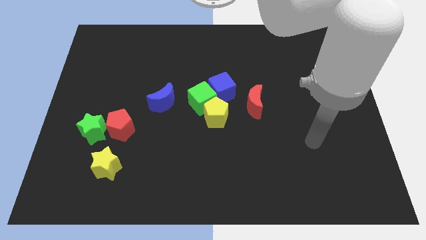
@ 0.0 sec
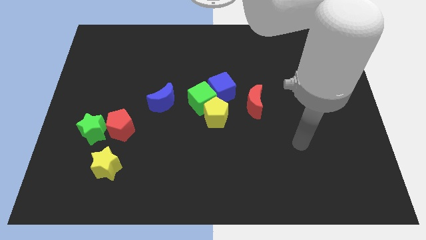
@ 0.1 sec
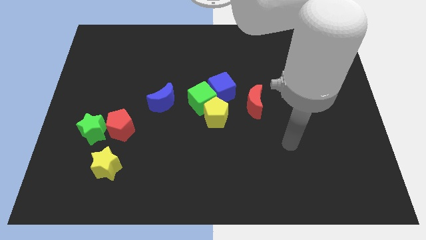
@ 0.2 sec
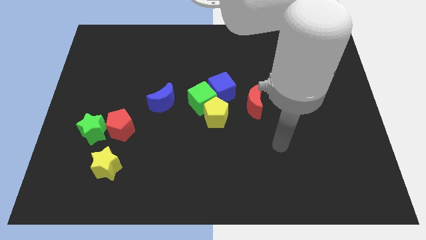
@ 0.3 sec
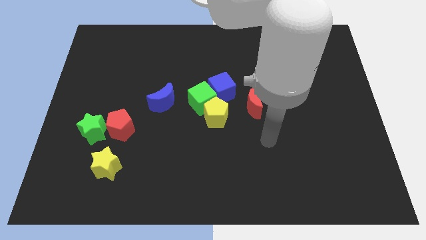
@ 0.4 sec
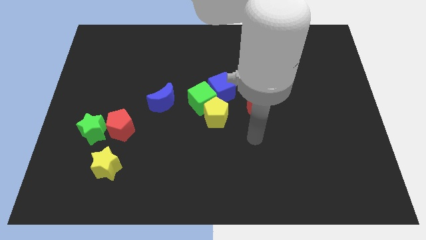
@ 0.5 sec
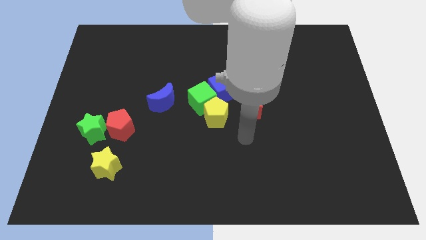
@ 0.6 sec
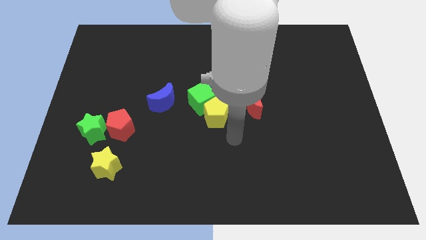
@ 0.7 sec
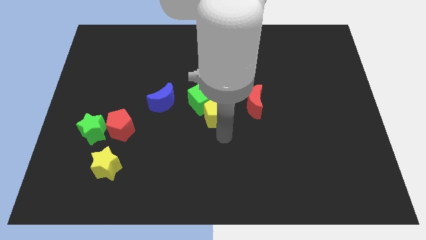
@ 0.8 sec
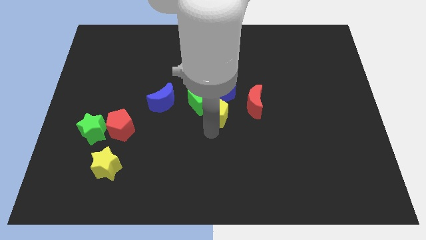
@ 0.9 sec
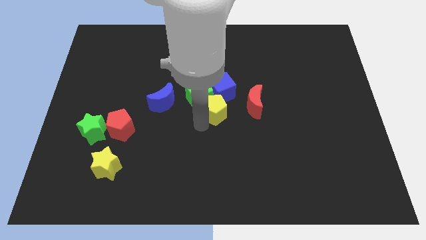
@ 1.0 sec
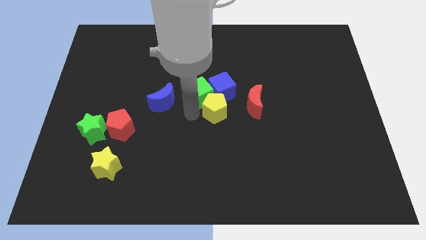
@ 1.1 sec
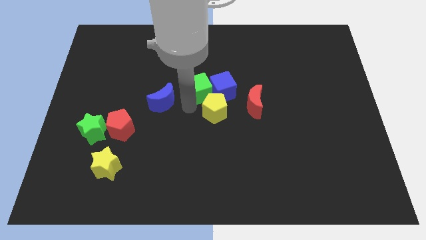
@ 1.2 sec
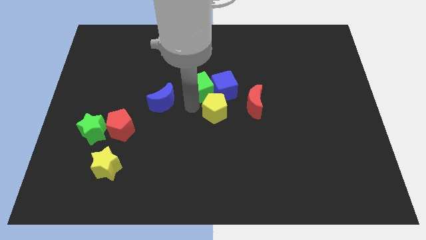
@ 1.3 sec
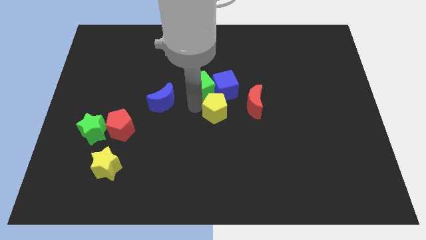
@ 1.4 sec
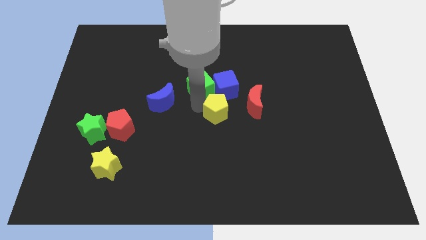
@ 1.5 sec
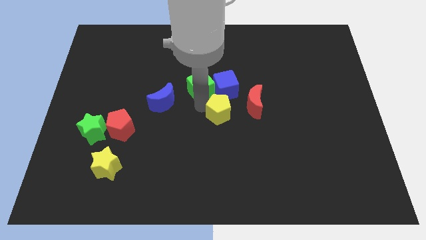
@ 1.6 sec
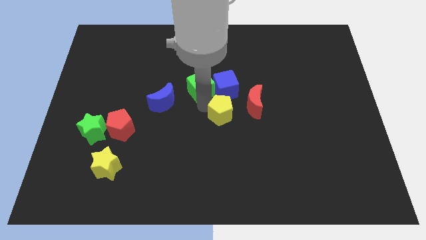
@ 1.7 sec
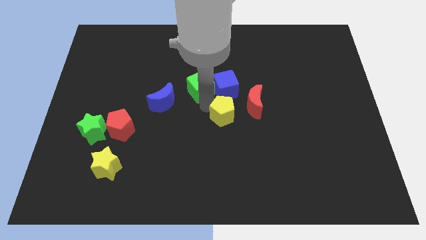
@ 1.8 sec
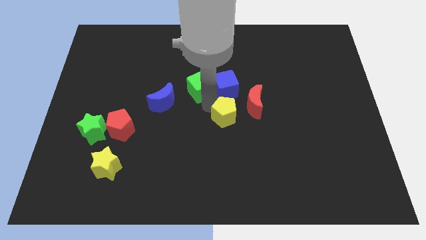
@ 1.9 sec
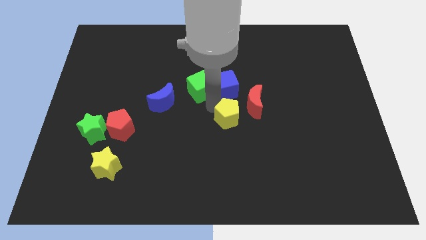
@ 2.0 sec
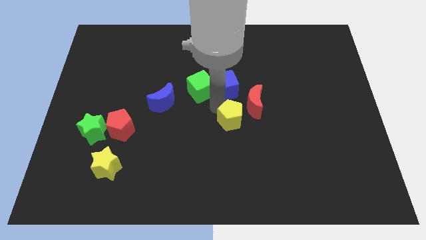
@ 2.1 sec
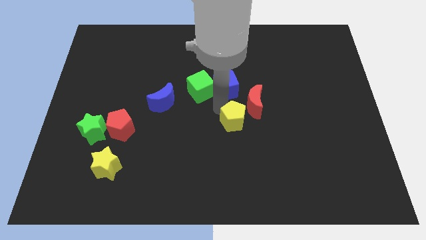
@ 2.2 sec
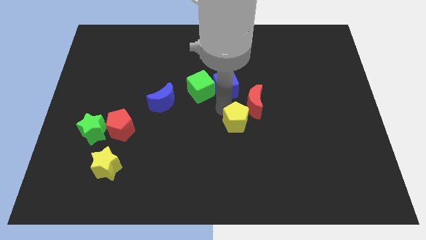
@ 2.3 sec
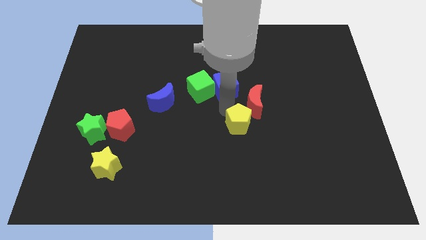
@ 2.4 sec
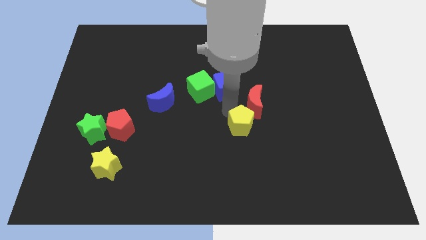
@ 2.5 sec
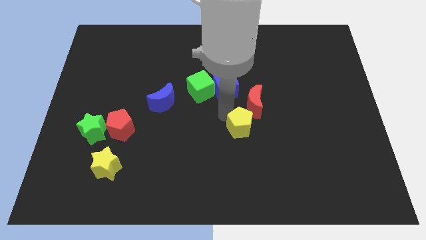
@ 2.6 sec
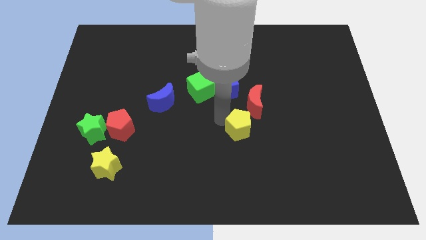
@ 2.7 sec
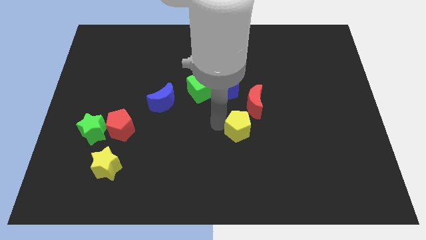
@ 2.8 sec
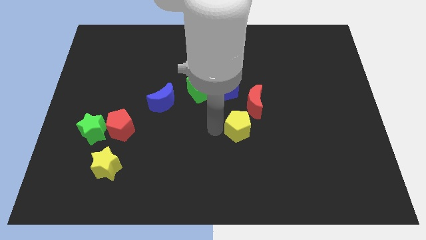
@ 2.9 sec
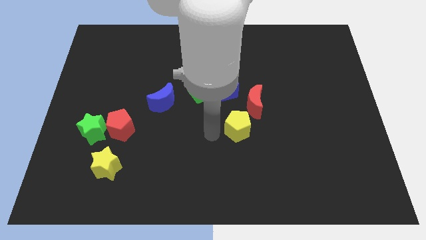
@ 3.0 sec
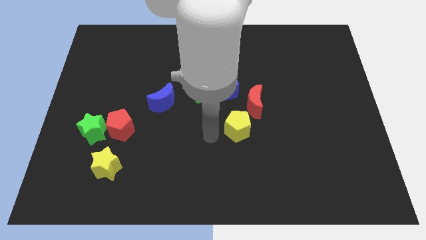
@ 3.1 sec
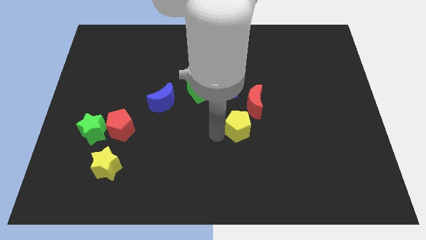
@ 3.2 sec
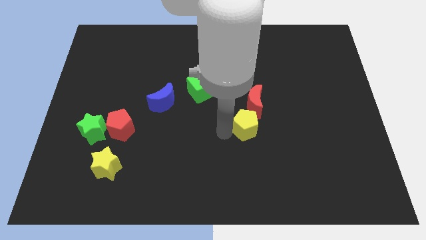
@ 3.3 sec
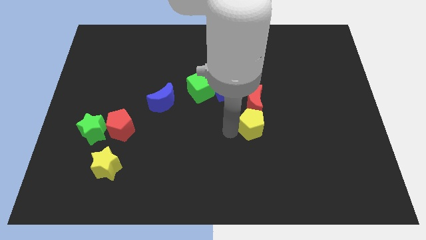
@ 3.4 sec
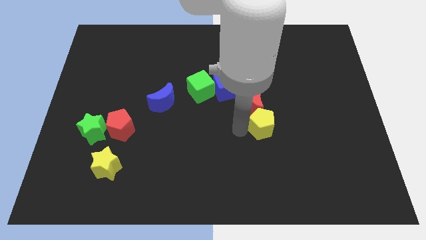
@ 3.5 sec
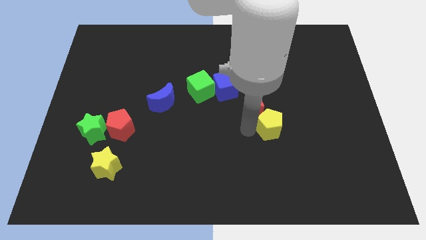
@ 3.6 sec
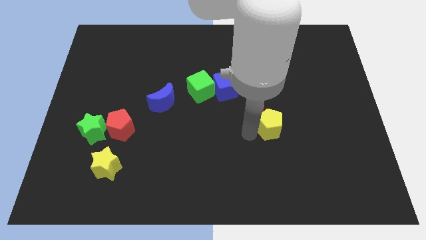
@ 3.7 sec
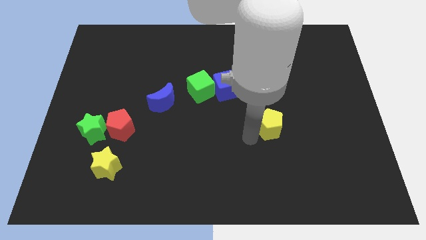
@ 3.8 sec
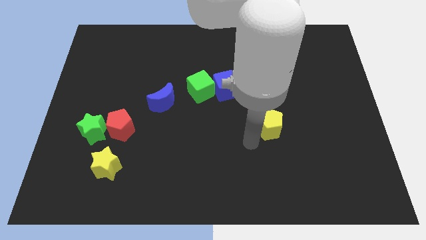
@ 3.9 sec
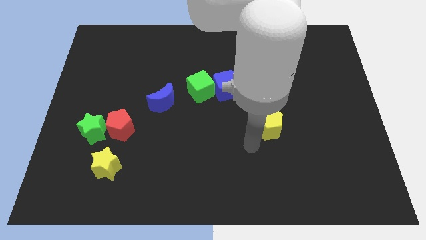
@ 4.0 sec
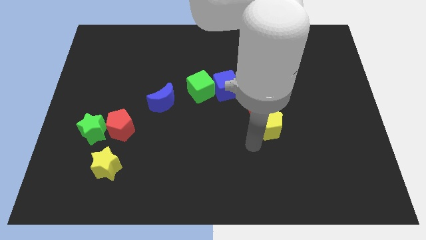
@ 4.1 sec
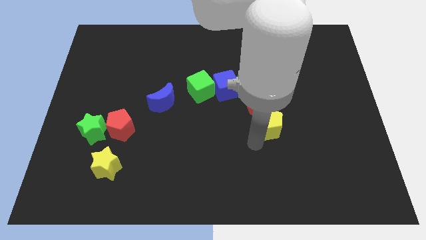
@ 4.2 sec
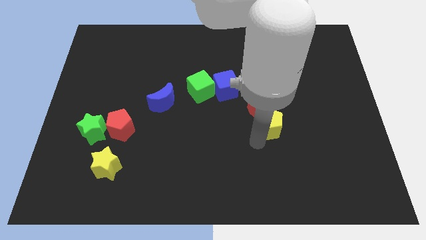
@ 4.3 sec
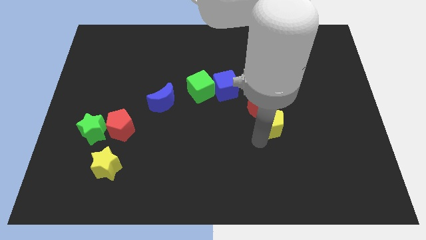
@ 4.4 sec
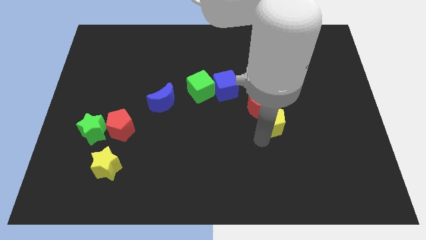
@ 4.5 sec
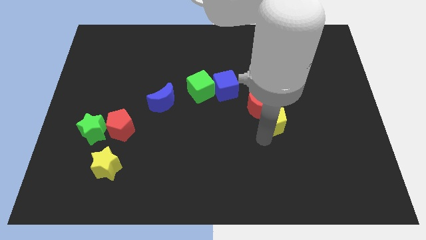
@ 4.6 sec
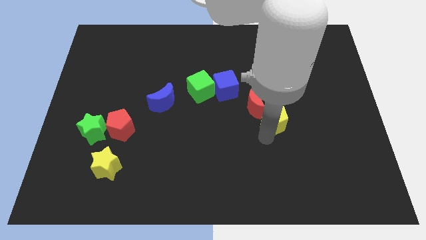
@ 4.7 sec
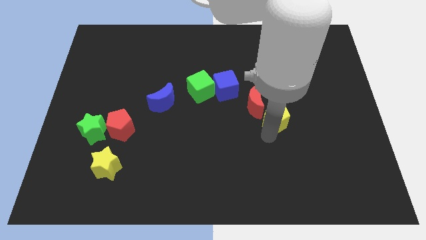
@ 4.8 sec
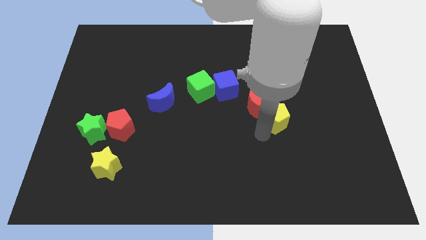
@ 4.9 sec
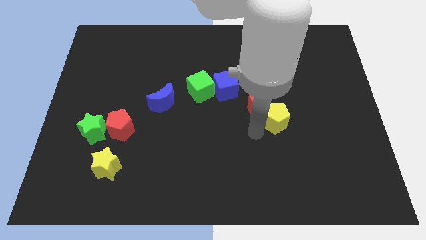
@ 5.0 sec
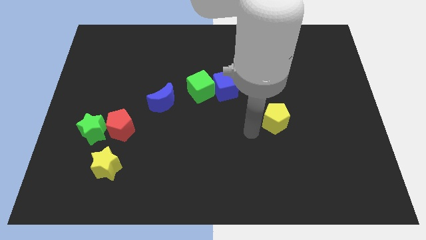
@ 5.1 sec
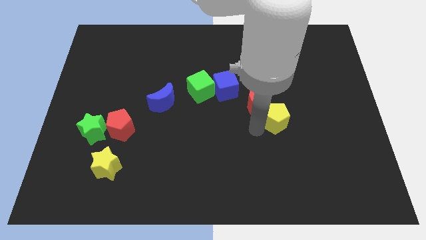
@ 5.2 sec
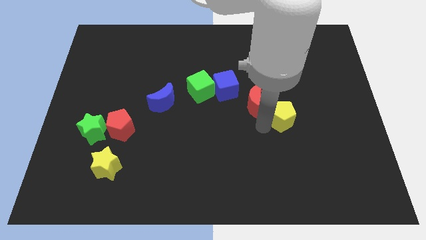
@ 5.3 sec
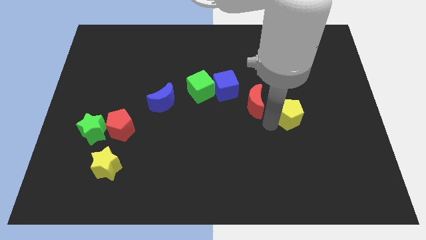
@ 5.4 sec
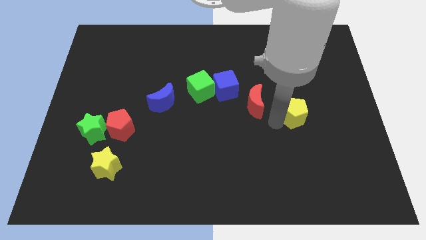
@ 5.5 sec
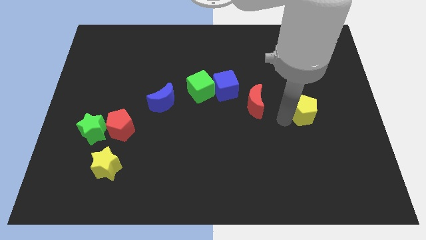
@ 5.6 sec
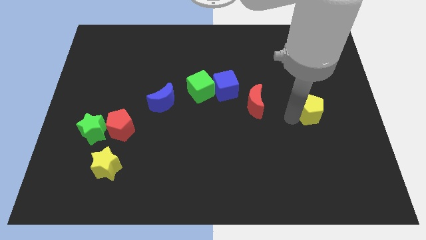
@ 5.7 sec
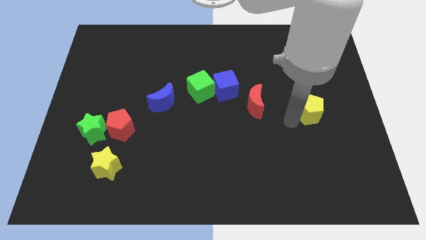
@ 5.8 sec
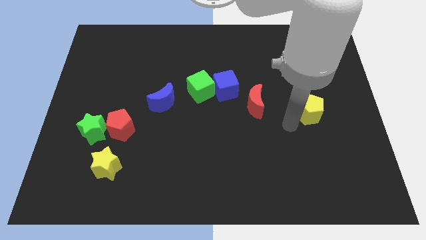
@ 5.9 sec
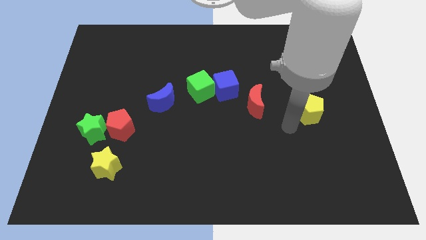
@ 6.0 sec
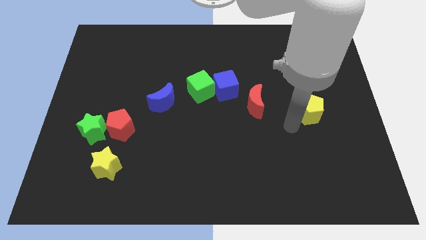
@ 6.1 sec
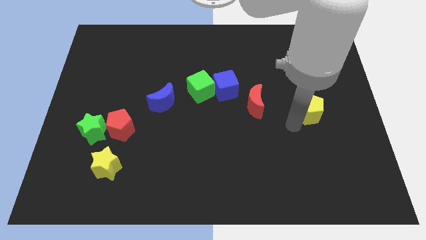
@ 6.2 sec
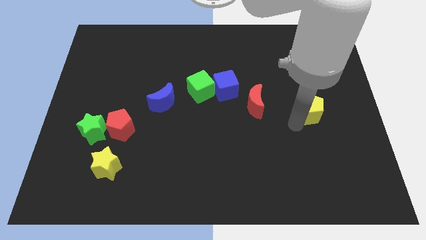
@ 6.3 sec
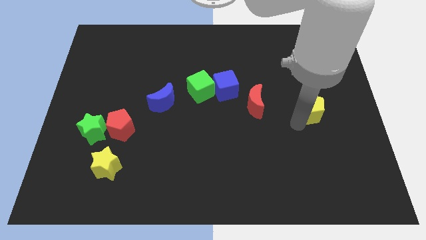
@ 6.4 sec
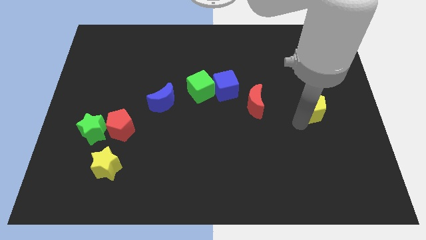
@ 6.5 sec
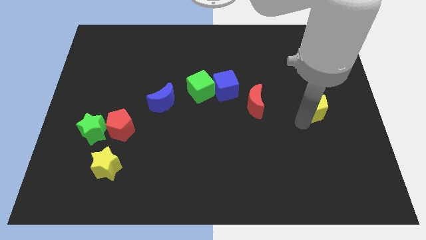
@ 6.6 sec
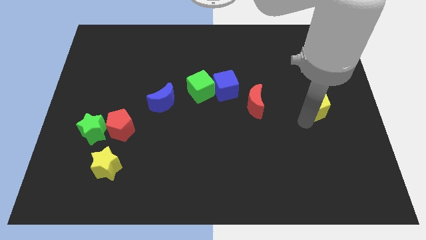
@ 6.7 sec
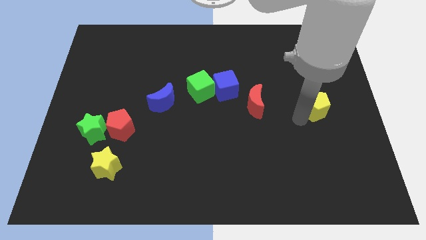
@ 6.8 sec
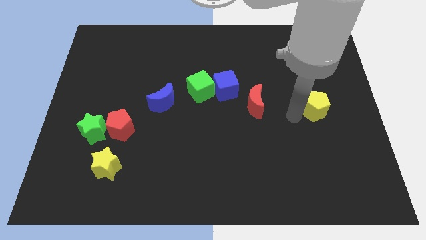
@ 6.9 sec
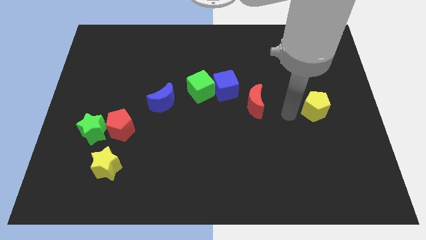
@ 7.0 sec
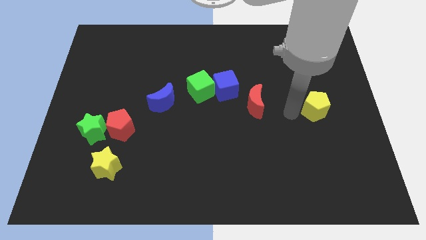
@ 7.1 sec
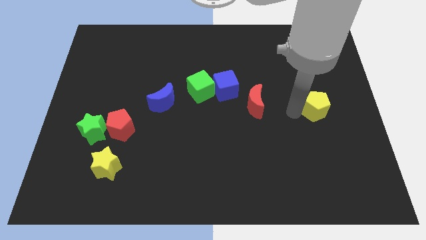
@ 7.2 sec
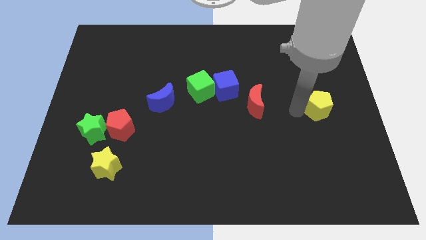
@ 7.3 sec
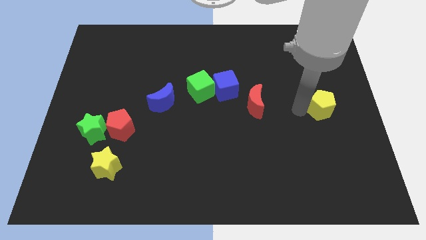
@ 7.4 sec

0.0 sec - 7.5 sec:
push the yellow pentagon to the right side of the board
